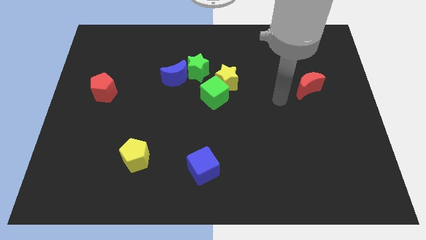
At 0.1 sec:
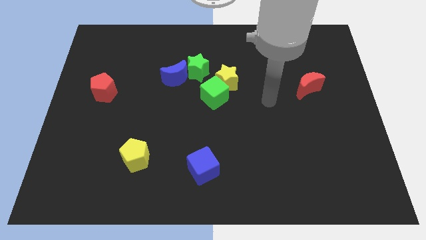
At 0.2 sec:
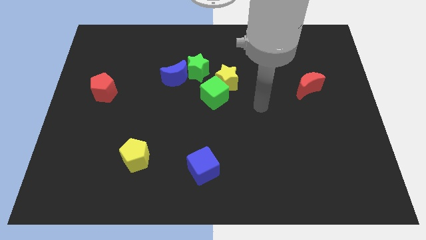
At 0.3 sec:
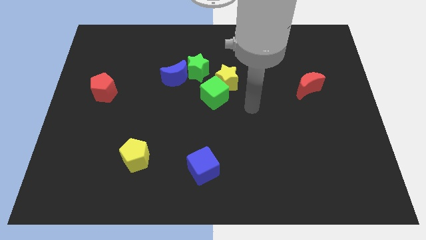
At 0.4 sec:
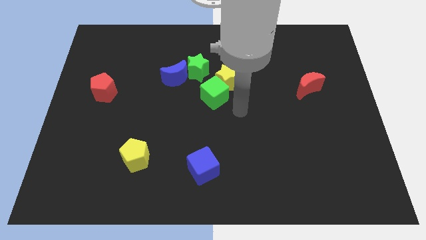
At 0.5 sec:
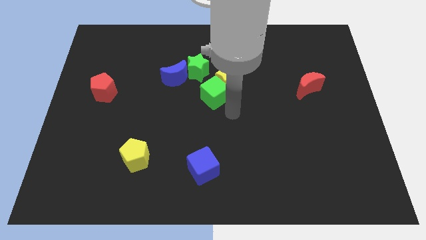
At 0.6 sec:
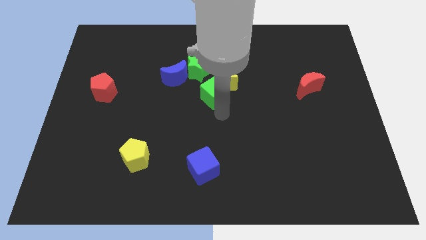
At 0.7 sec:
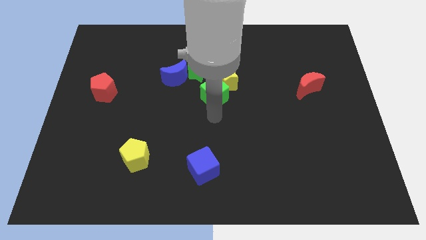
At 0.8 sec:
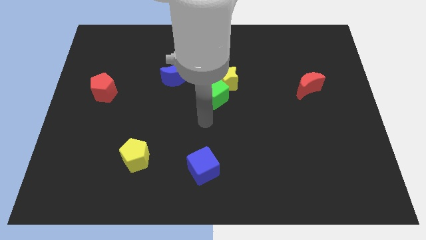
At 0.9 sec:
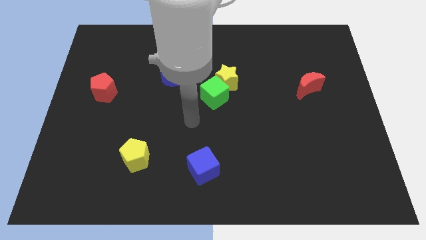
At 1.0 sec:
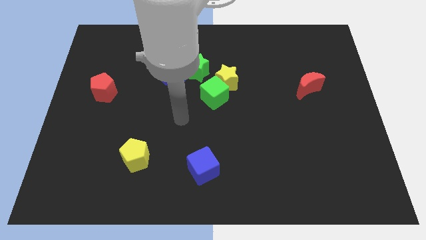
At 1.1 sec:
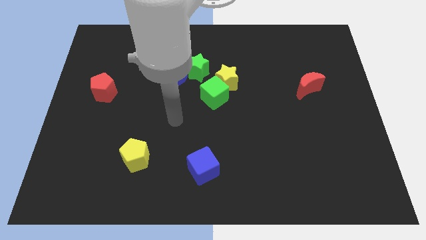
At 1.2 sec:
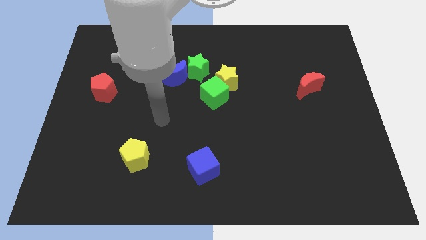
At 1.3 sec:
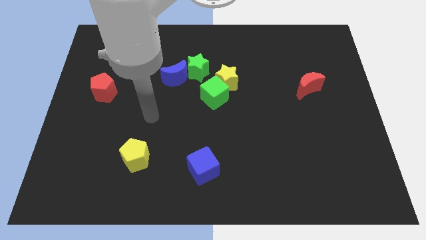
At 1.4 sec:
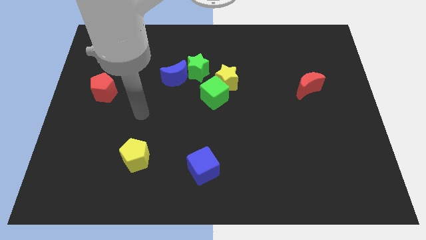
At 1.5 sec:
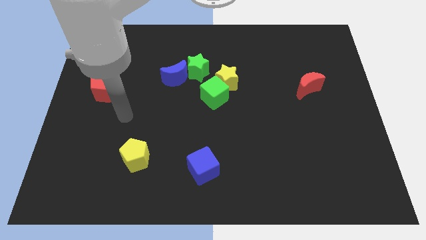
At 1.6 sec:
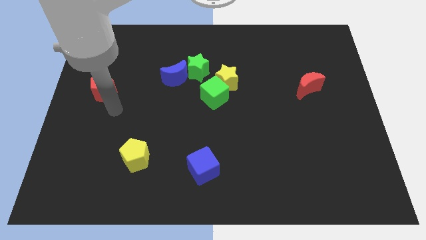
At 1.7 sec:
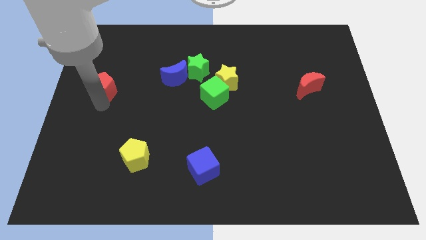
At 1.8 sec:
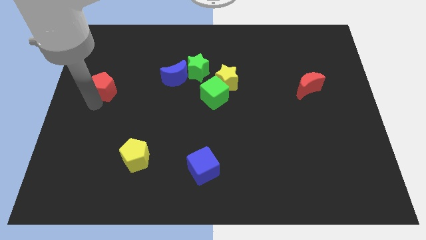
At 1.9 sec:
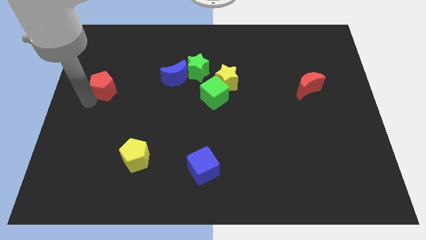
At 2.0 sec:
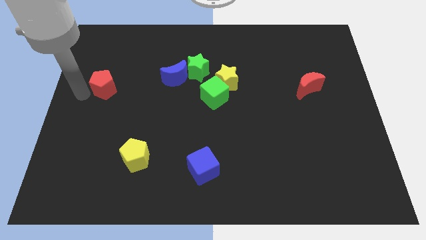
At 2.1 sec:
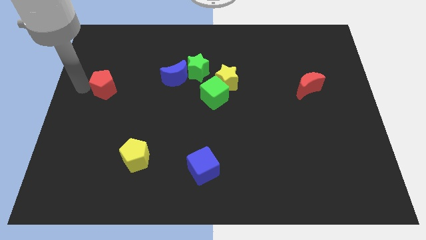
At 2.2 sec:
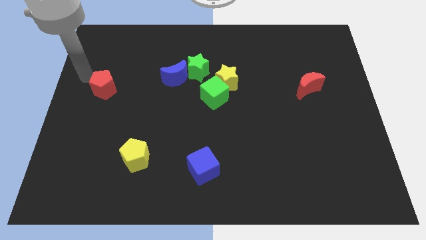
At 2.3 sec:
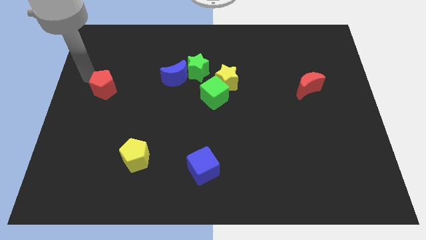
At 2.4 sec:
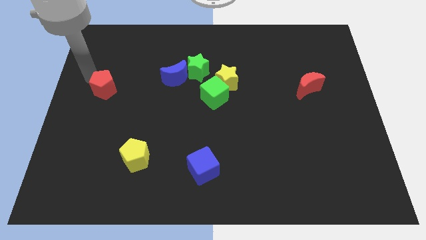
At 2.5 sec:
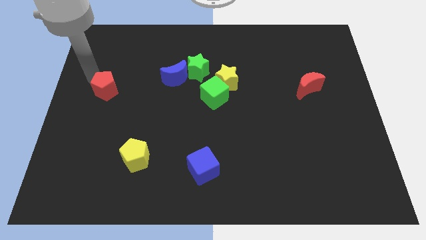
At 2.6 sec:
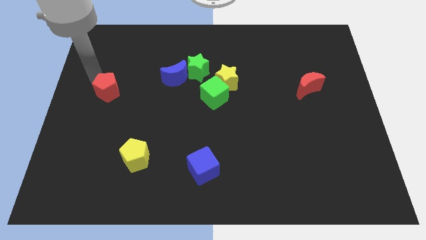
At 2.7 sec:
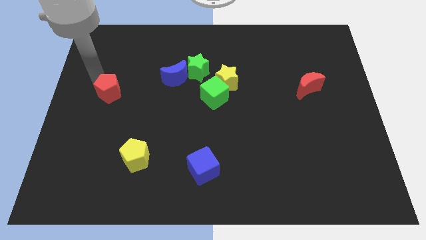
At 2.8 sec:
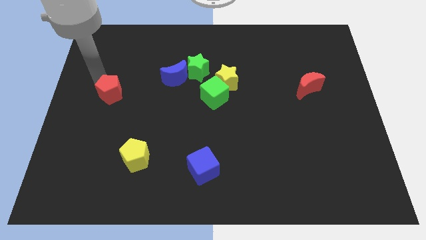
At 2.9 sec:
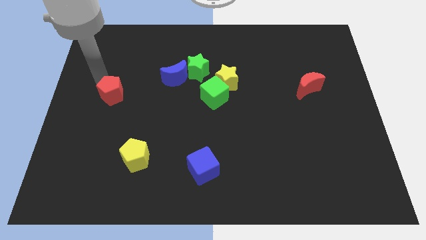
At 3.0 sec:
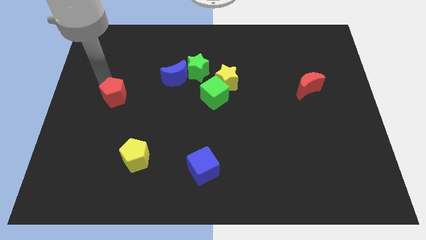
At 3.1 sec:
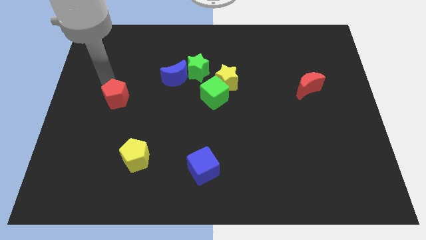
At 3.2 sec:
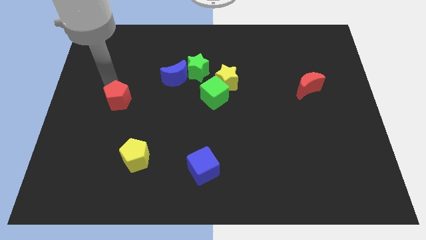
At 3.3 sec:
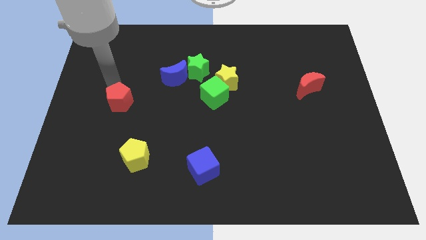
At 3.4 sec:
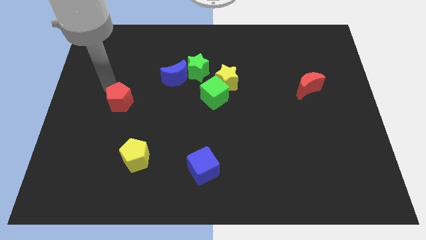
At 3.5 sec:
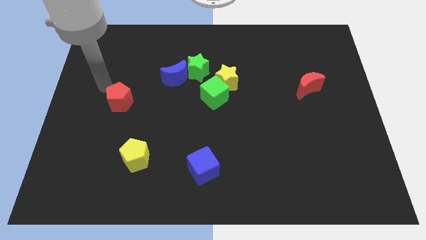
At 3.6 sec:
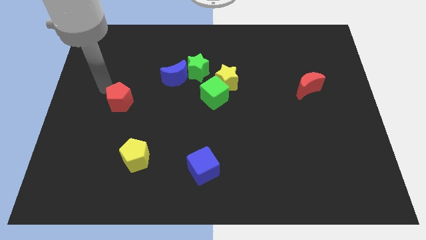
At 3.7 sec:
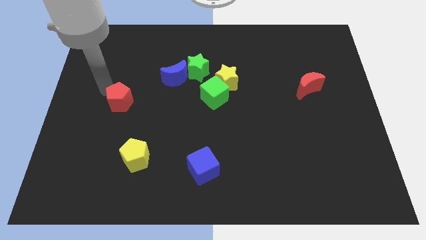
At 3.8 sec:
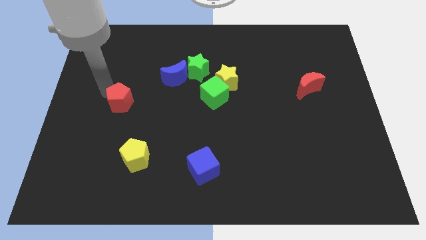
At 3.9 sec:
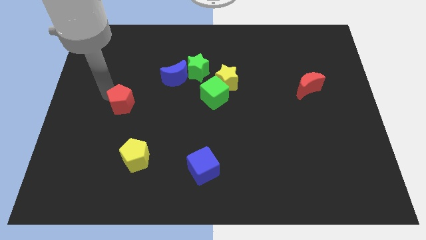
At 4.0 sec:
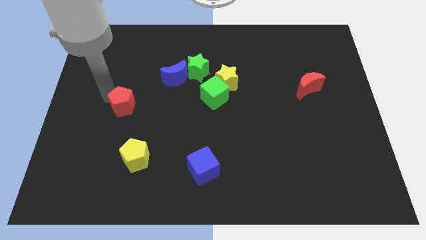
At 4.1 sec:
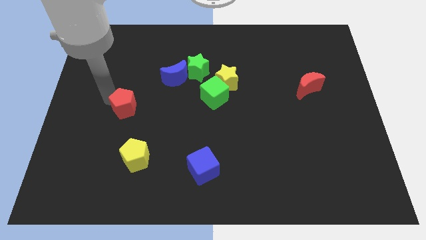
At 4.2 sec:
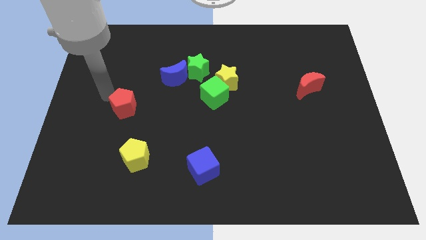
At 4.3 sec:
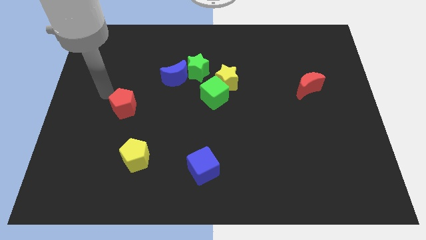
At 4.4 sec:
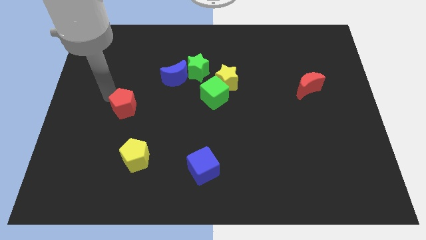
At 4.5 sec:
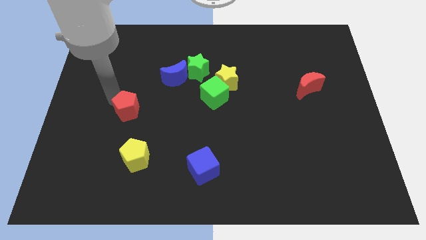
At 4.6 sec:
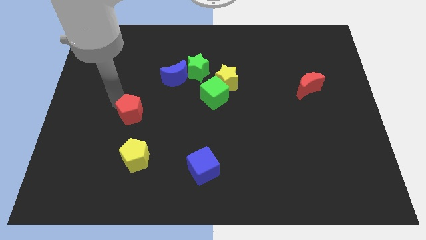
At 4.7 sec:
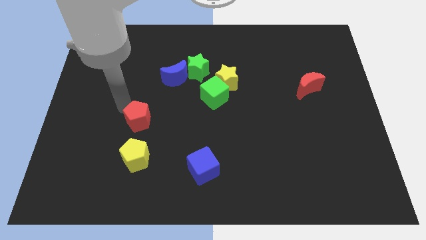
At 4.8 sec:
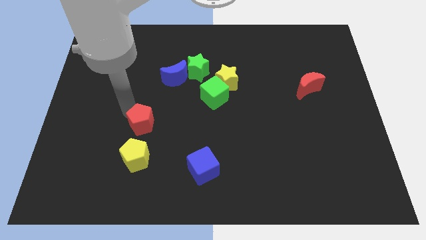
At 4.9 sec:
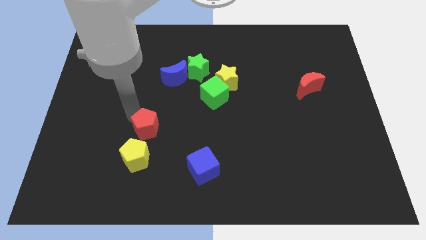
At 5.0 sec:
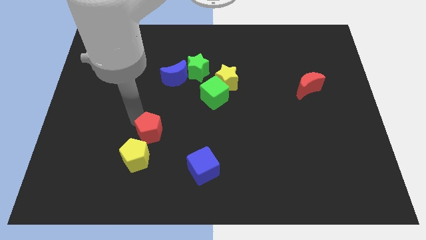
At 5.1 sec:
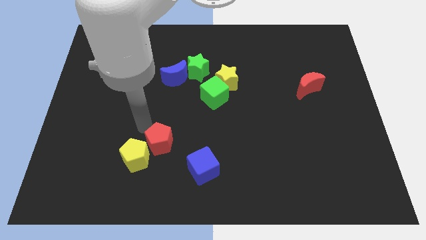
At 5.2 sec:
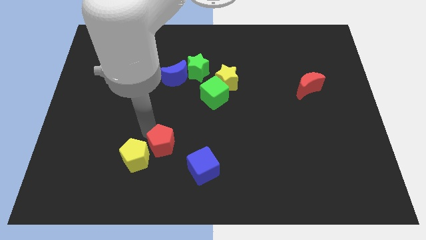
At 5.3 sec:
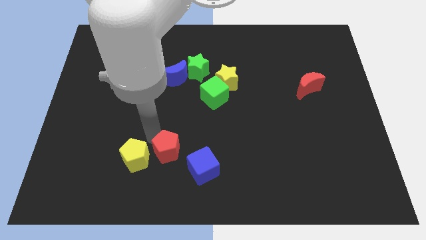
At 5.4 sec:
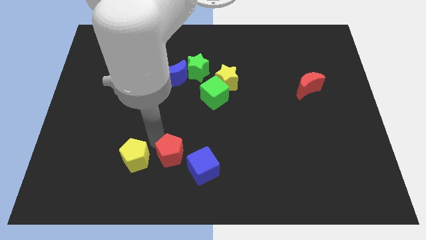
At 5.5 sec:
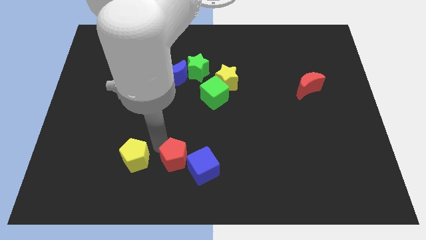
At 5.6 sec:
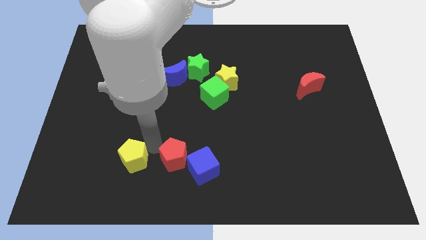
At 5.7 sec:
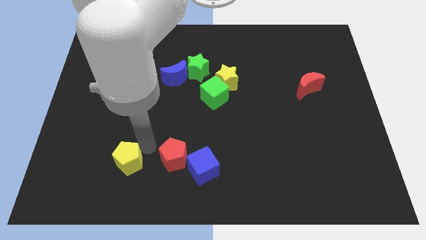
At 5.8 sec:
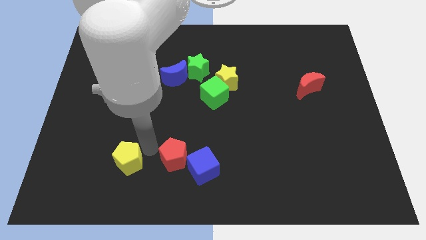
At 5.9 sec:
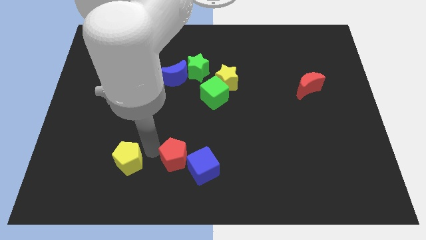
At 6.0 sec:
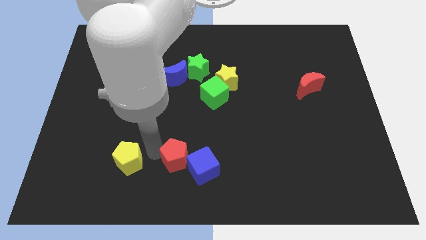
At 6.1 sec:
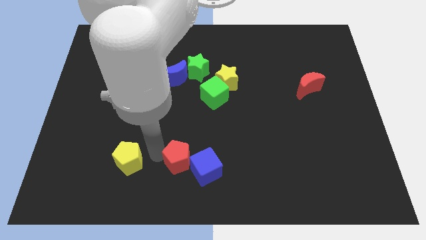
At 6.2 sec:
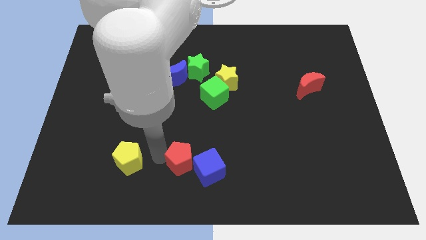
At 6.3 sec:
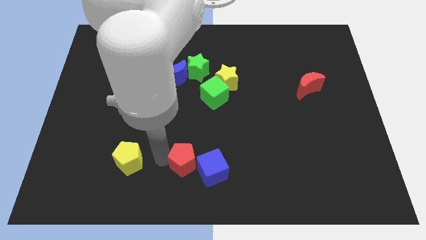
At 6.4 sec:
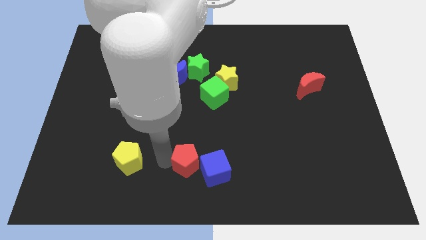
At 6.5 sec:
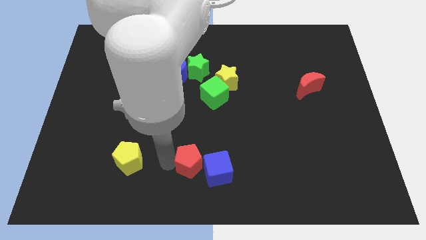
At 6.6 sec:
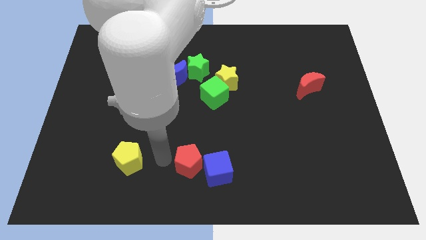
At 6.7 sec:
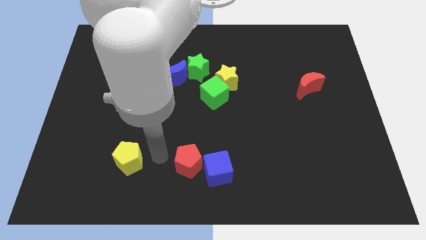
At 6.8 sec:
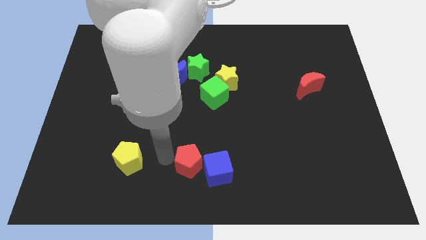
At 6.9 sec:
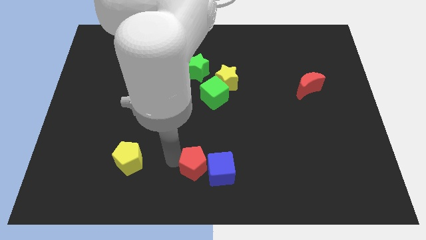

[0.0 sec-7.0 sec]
move the red pentagon to the blue cube
